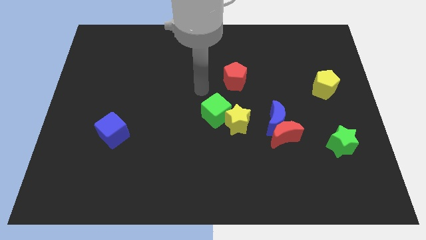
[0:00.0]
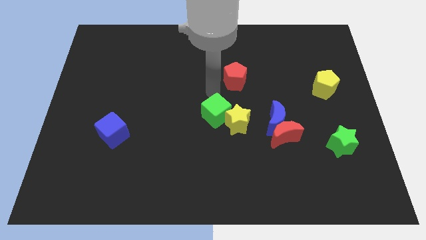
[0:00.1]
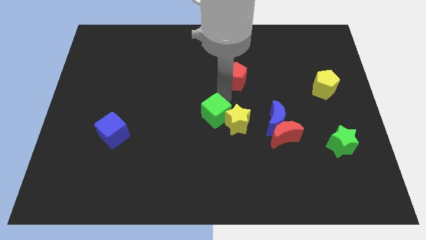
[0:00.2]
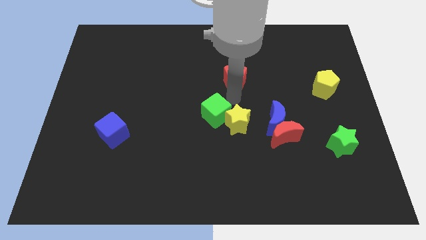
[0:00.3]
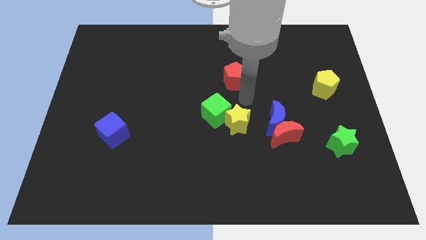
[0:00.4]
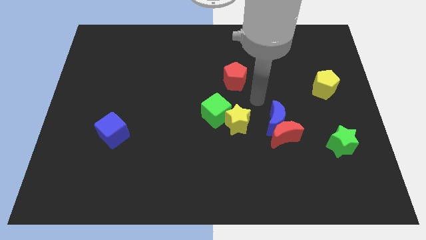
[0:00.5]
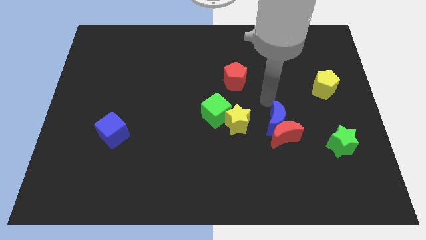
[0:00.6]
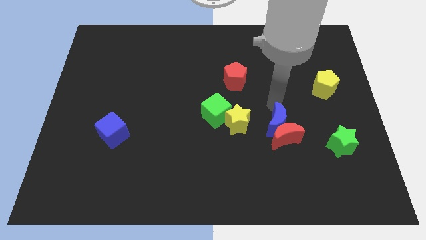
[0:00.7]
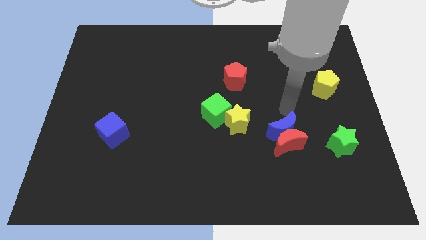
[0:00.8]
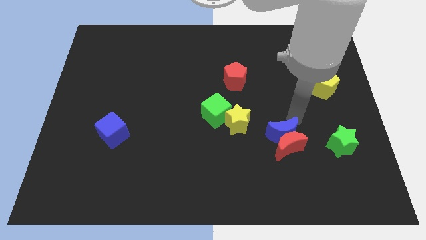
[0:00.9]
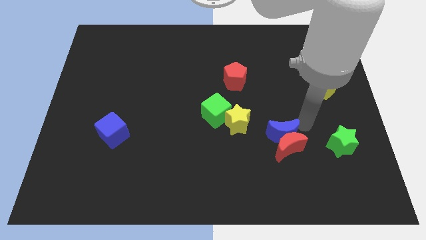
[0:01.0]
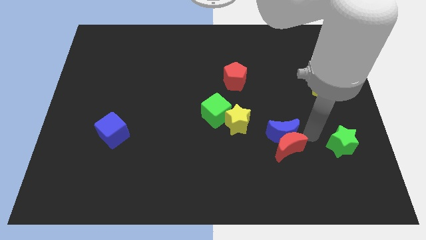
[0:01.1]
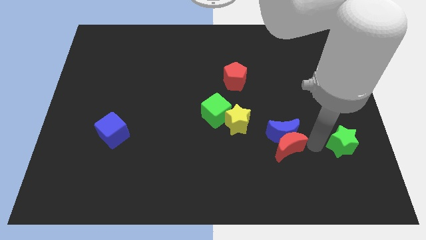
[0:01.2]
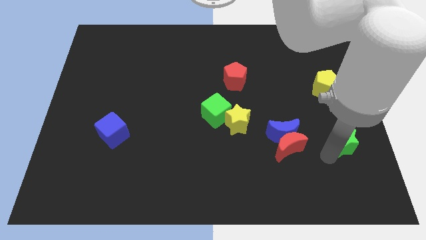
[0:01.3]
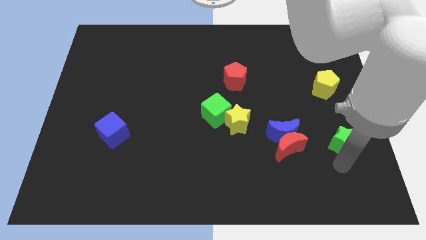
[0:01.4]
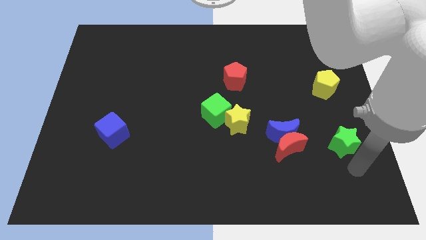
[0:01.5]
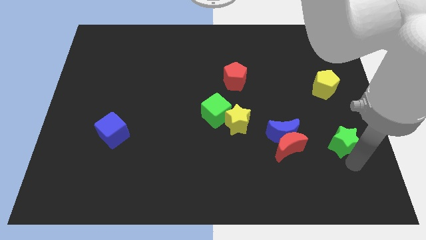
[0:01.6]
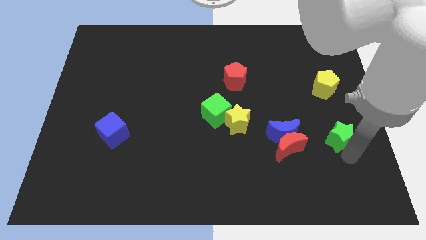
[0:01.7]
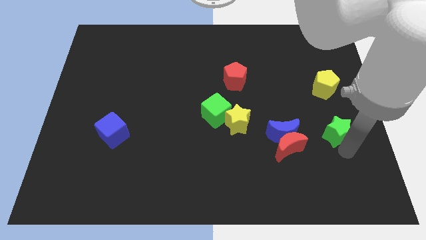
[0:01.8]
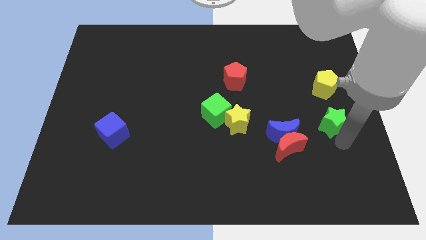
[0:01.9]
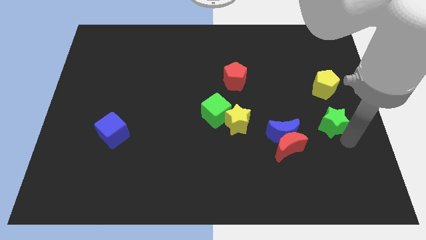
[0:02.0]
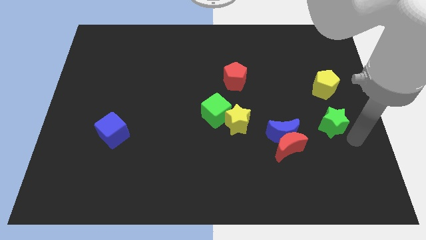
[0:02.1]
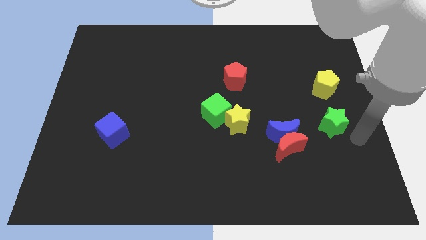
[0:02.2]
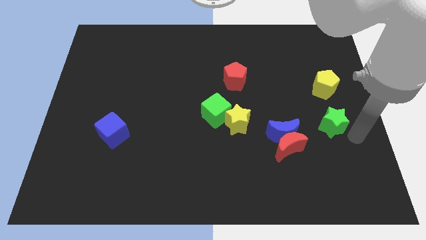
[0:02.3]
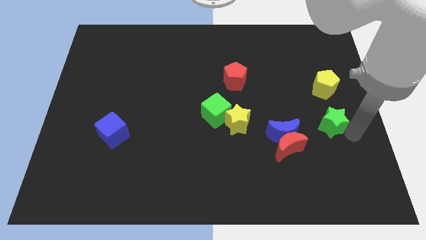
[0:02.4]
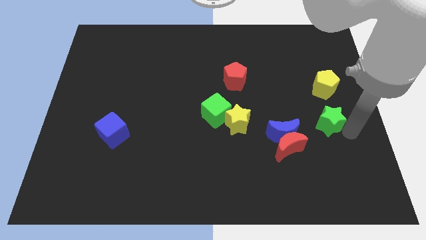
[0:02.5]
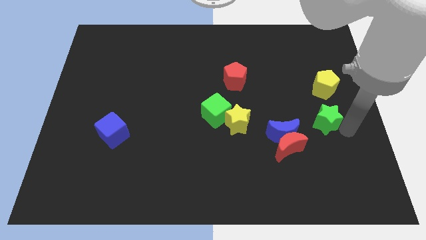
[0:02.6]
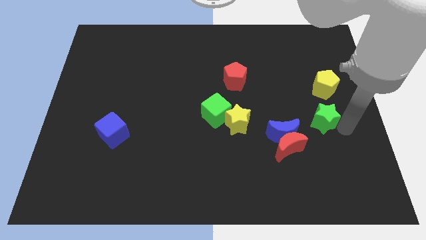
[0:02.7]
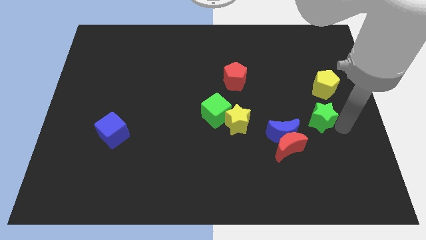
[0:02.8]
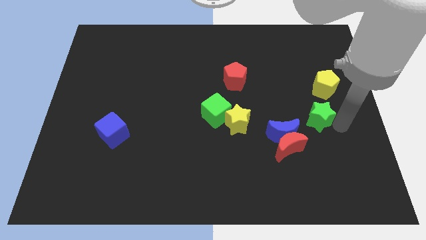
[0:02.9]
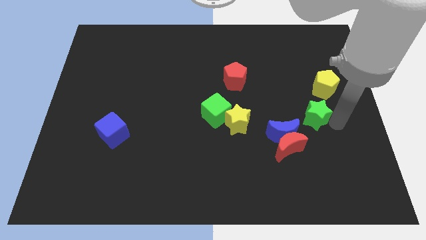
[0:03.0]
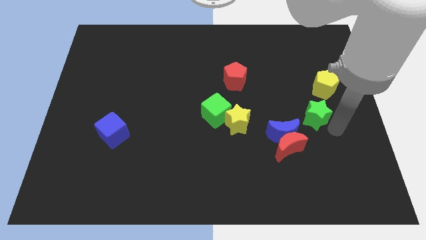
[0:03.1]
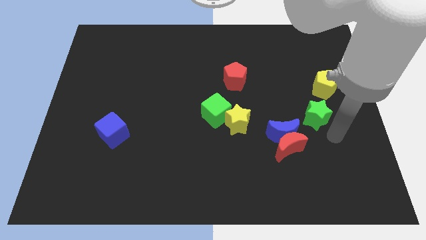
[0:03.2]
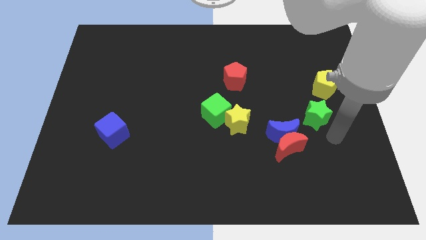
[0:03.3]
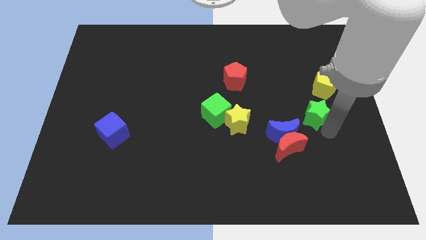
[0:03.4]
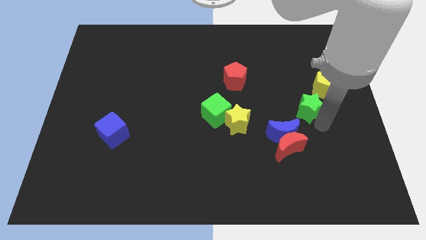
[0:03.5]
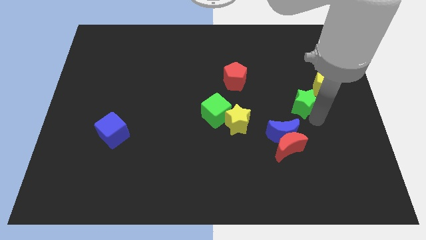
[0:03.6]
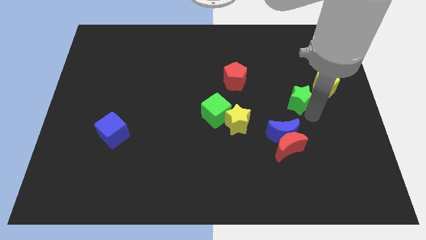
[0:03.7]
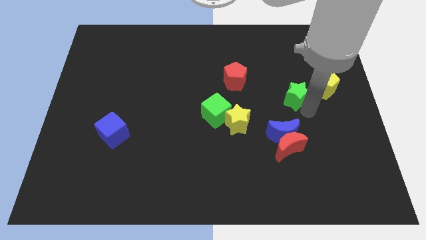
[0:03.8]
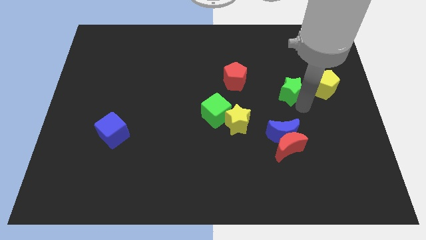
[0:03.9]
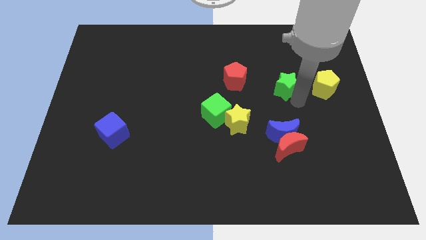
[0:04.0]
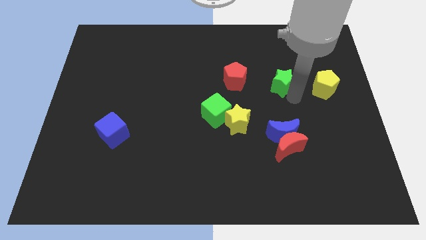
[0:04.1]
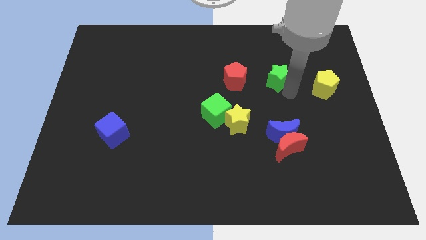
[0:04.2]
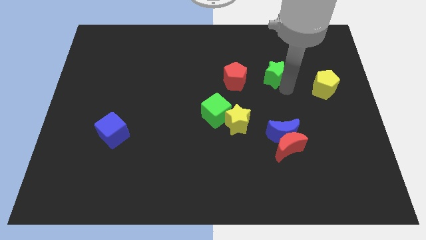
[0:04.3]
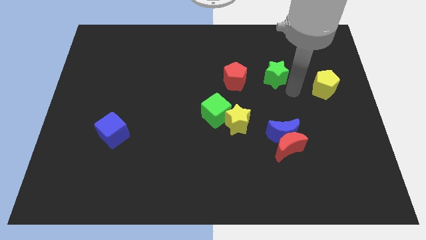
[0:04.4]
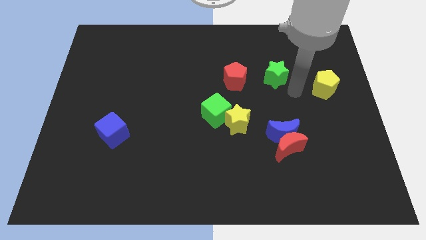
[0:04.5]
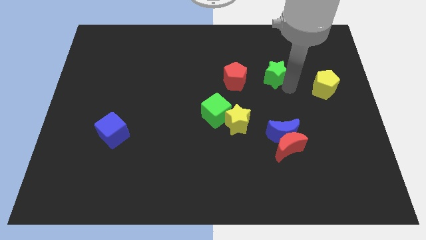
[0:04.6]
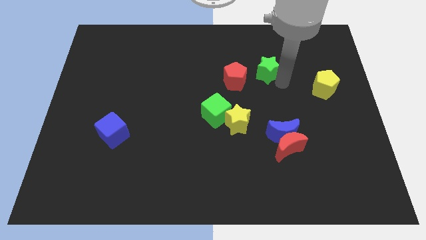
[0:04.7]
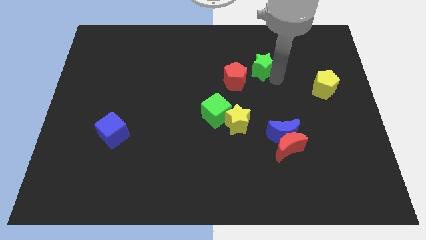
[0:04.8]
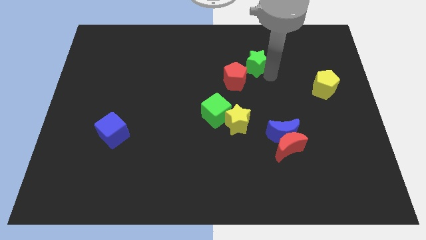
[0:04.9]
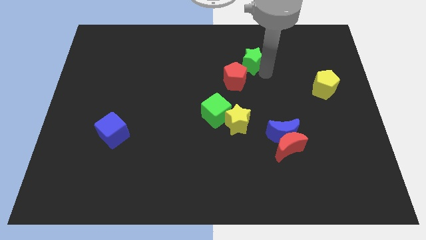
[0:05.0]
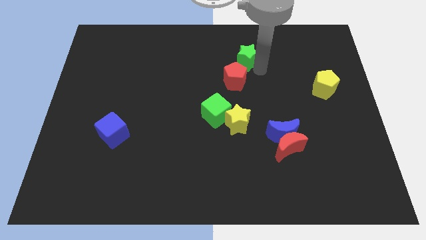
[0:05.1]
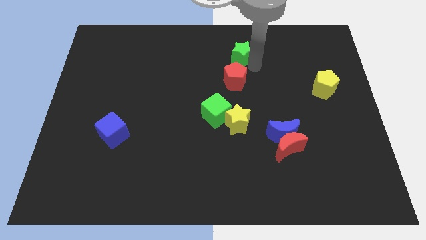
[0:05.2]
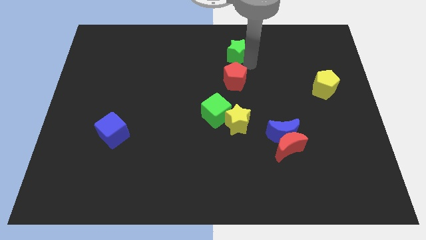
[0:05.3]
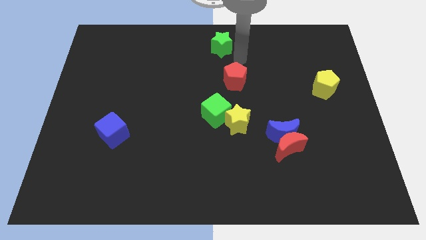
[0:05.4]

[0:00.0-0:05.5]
slide the green star to the top side

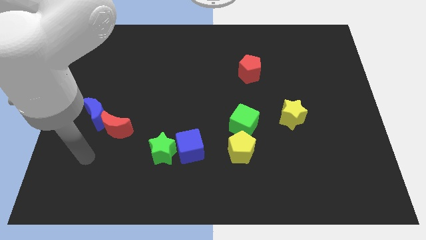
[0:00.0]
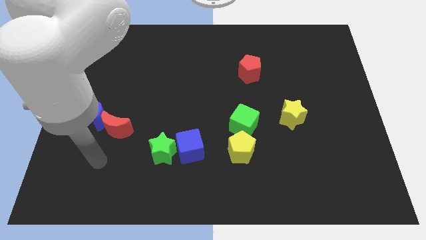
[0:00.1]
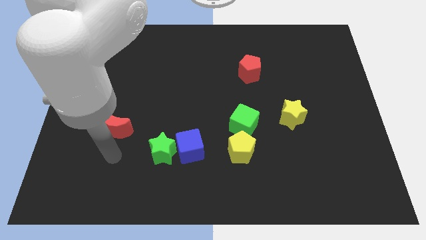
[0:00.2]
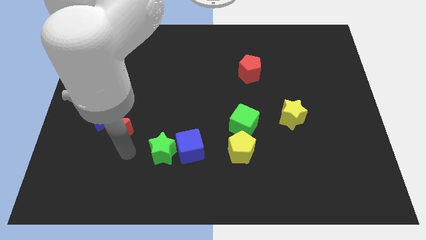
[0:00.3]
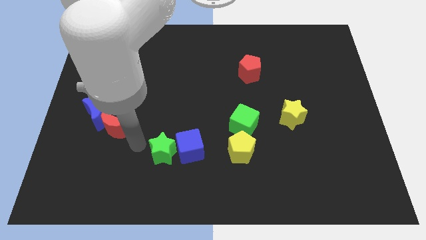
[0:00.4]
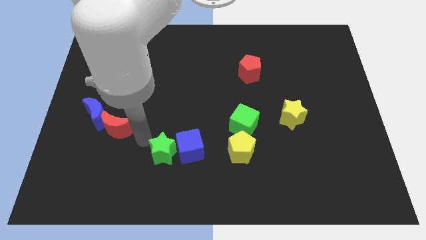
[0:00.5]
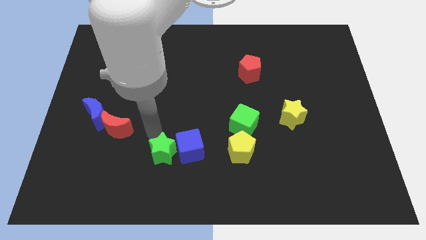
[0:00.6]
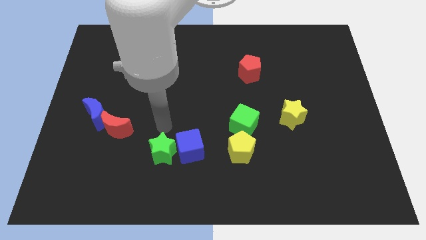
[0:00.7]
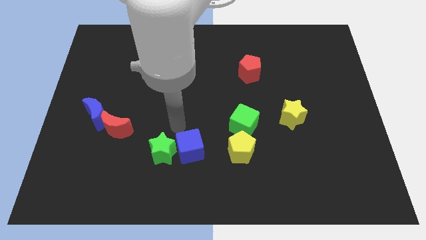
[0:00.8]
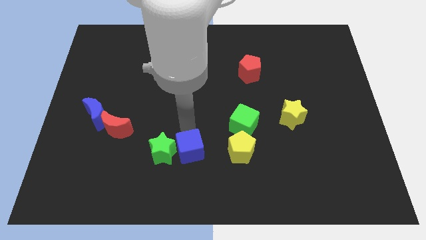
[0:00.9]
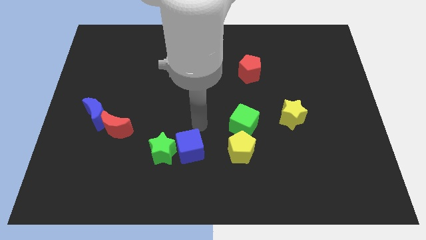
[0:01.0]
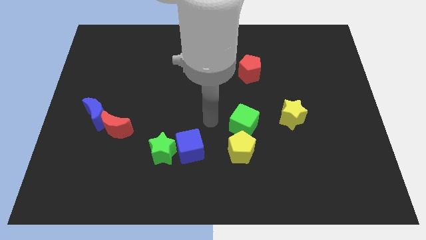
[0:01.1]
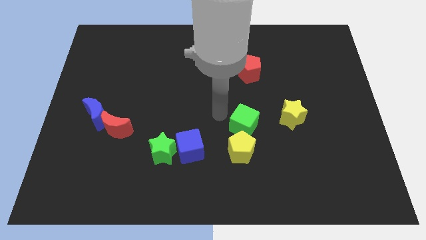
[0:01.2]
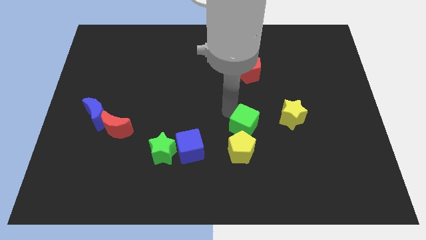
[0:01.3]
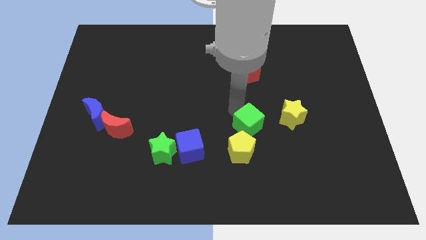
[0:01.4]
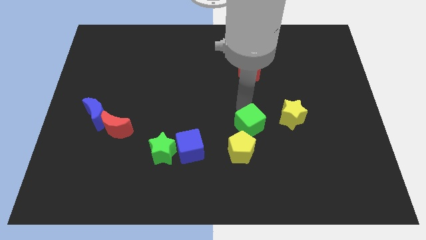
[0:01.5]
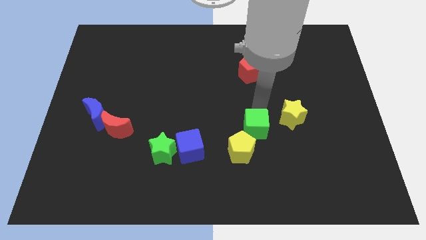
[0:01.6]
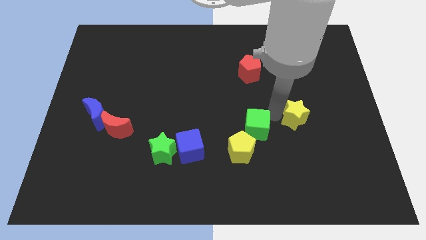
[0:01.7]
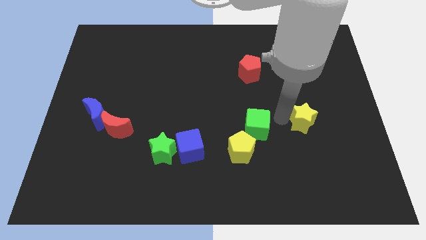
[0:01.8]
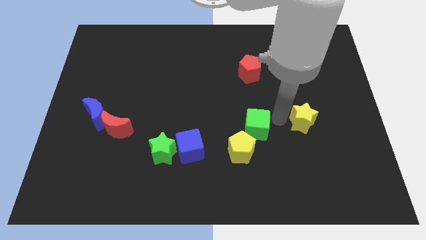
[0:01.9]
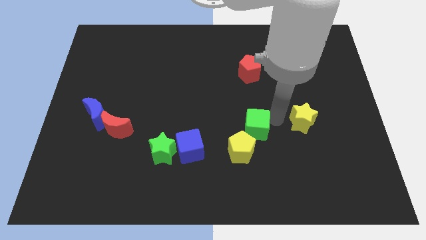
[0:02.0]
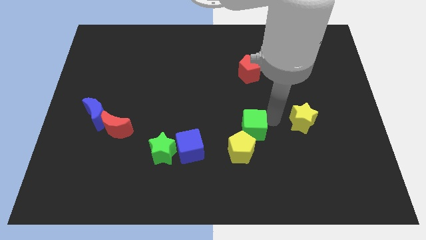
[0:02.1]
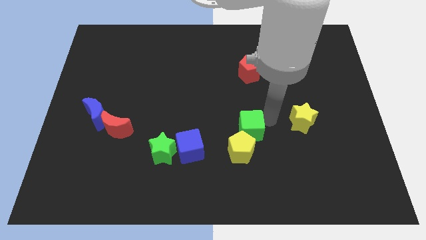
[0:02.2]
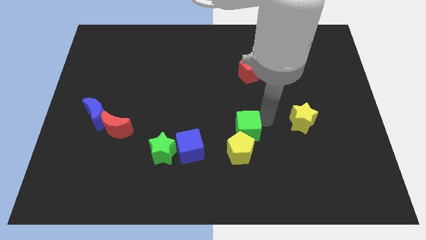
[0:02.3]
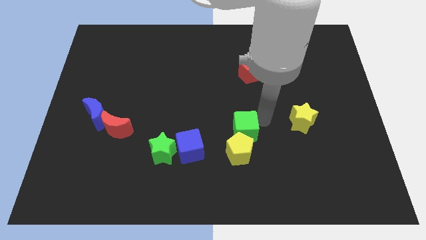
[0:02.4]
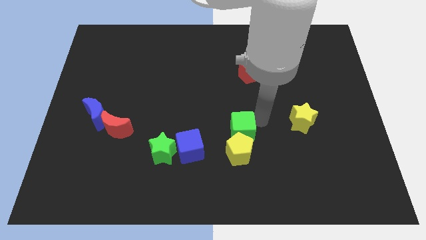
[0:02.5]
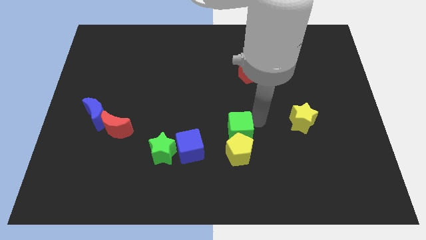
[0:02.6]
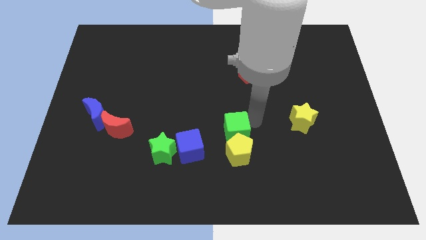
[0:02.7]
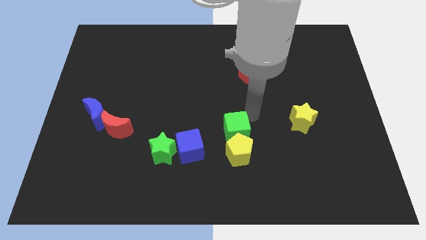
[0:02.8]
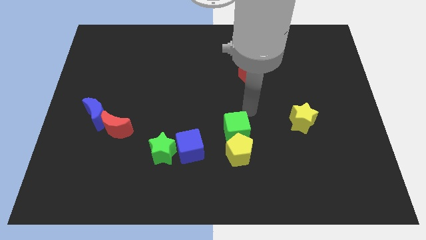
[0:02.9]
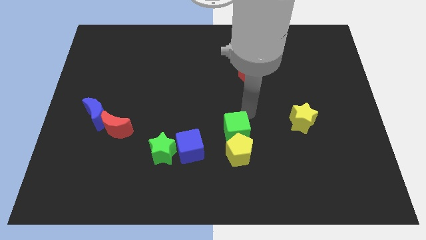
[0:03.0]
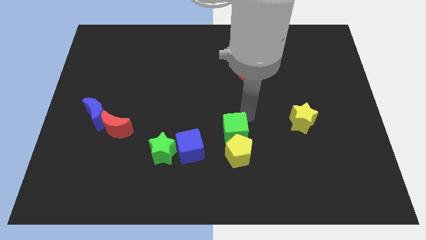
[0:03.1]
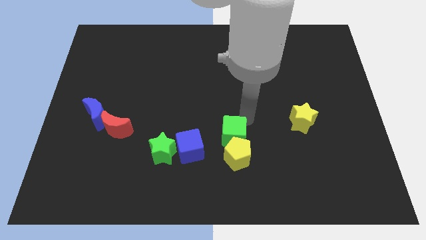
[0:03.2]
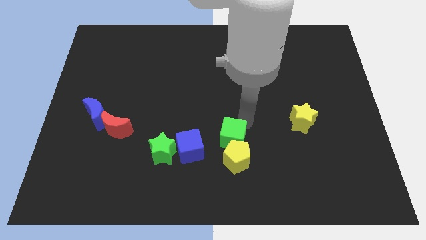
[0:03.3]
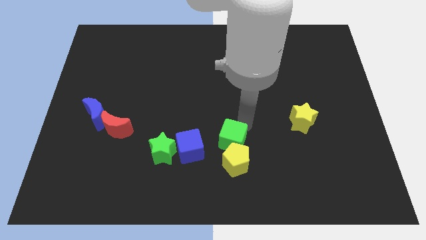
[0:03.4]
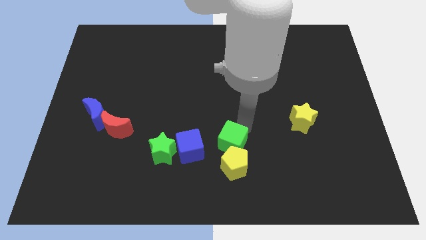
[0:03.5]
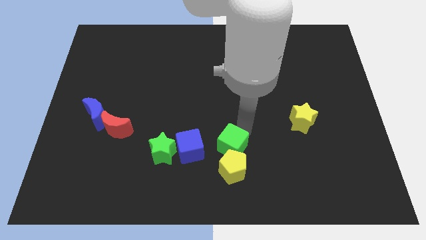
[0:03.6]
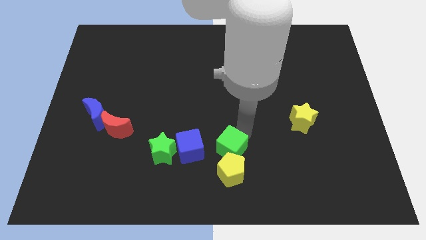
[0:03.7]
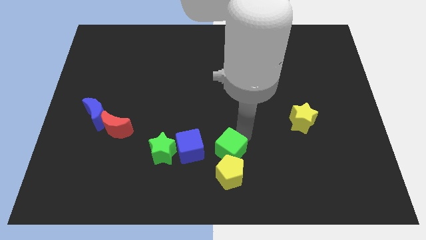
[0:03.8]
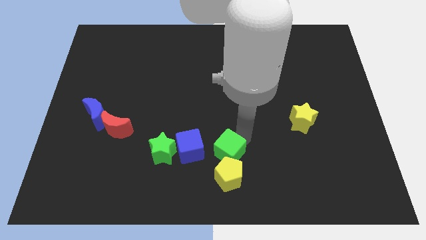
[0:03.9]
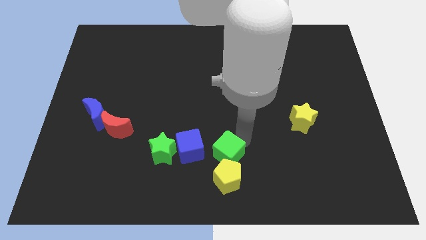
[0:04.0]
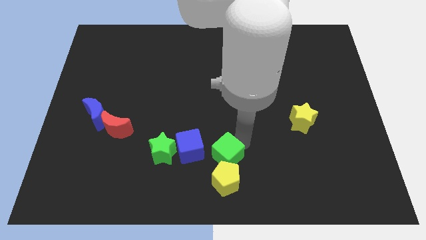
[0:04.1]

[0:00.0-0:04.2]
move the green cube to the bottom
